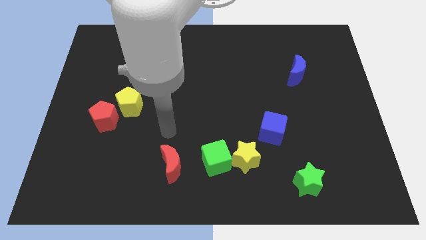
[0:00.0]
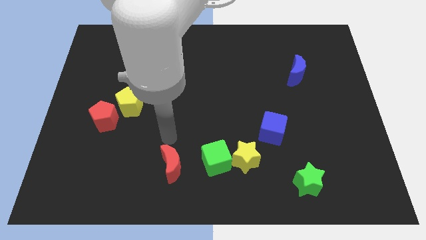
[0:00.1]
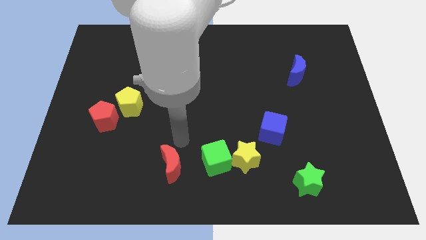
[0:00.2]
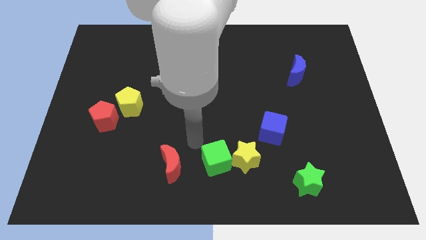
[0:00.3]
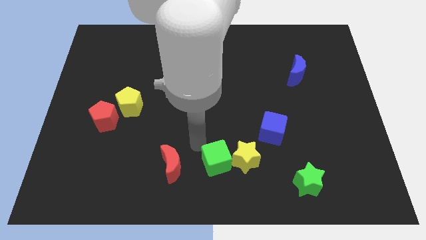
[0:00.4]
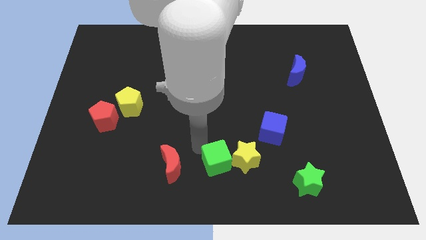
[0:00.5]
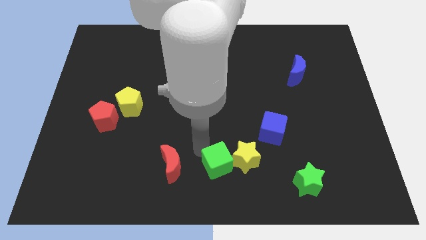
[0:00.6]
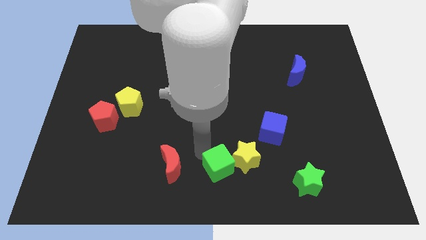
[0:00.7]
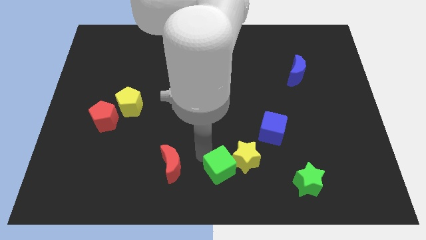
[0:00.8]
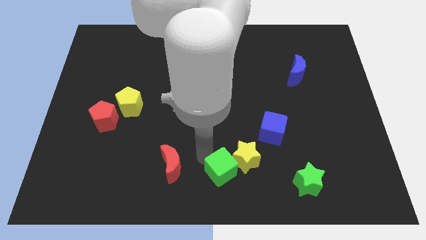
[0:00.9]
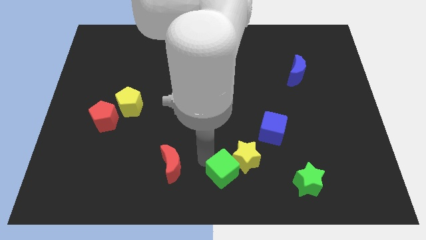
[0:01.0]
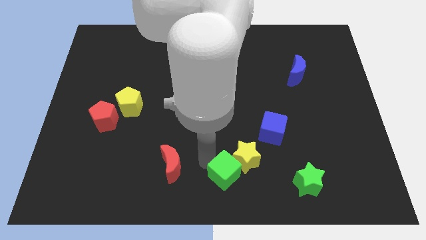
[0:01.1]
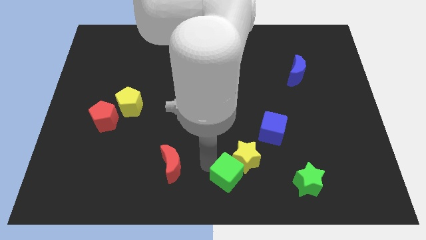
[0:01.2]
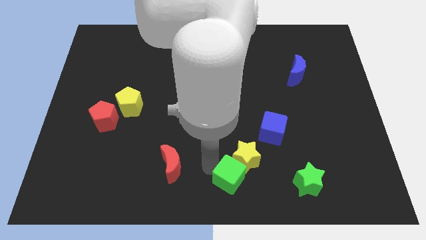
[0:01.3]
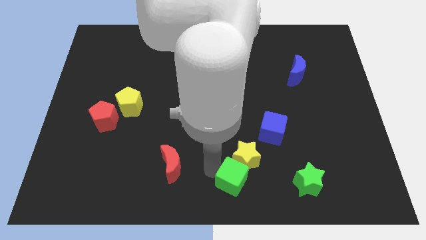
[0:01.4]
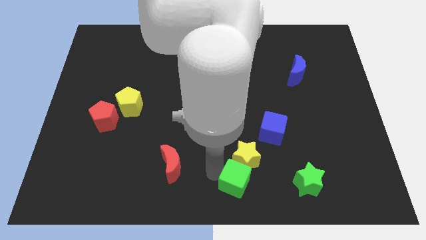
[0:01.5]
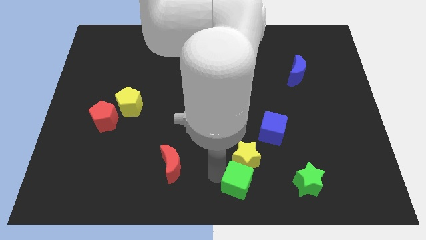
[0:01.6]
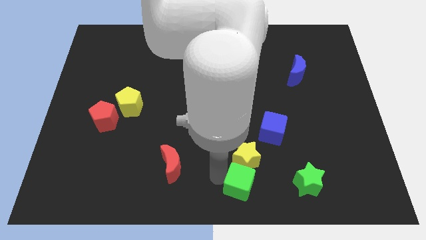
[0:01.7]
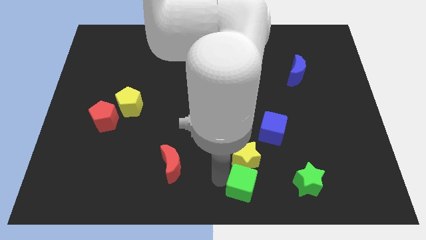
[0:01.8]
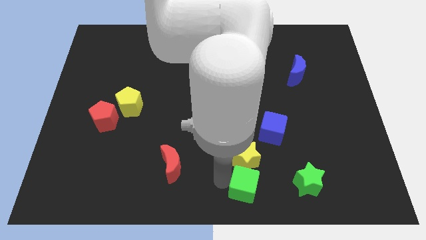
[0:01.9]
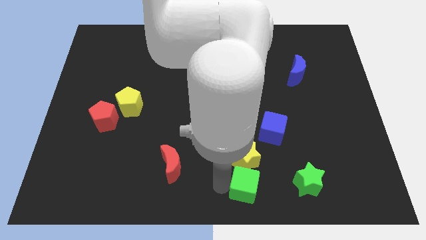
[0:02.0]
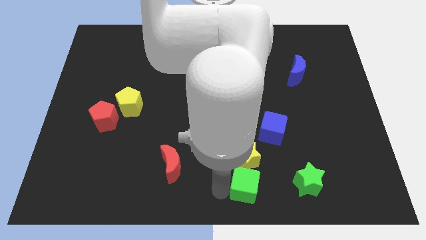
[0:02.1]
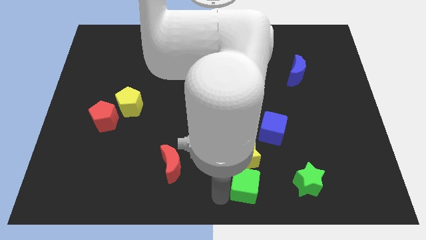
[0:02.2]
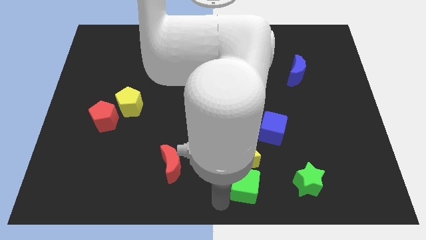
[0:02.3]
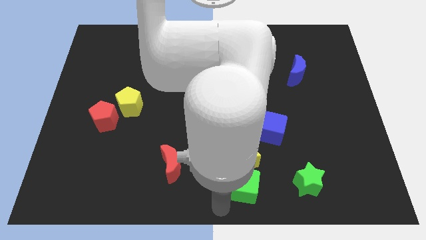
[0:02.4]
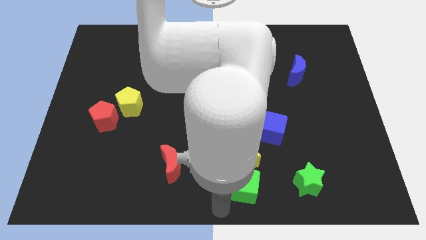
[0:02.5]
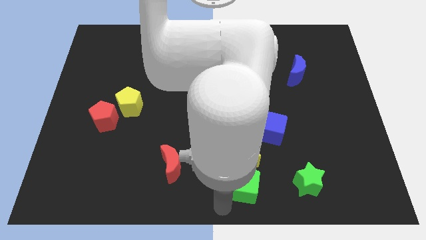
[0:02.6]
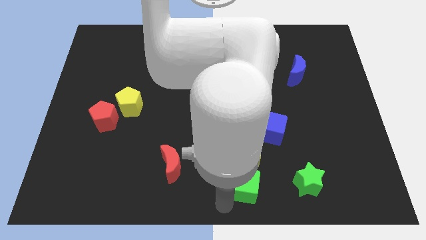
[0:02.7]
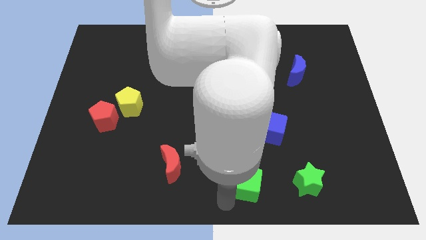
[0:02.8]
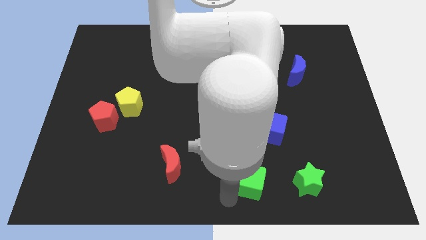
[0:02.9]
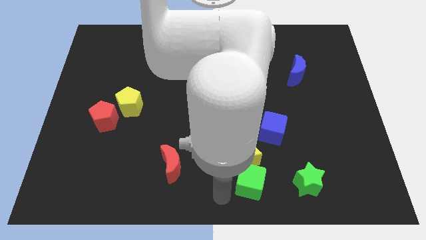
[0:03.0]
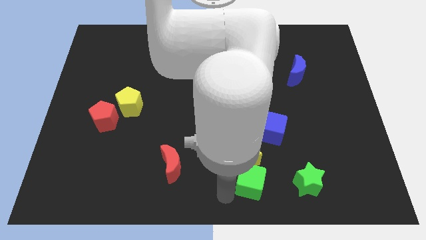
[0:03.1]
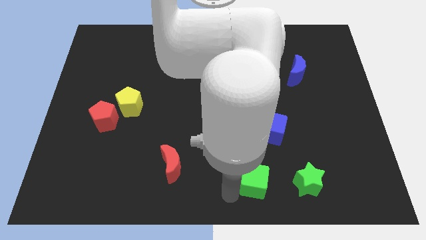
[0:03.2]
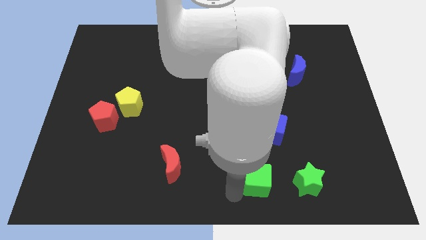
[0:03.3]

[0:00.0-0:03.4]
move the green cube right a little bit

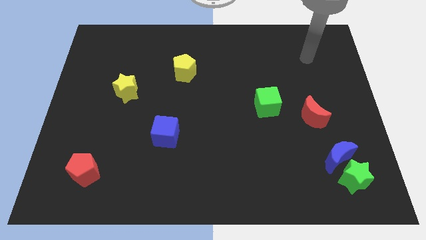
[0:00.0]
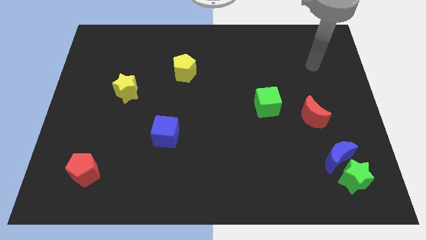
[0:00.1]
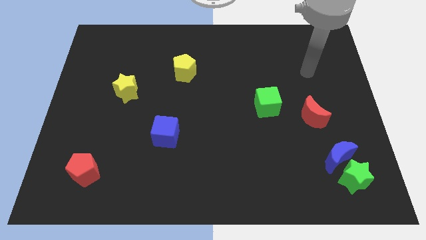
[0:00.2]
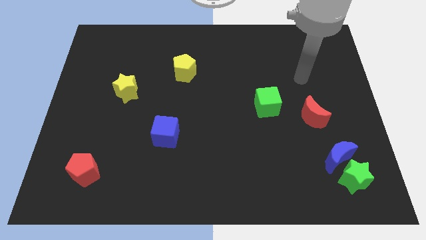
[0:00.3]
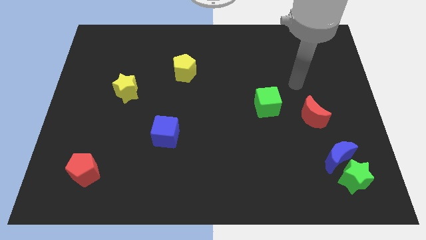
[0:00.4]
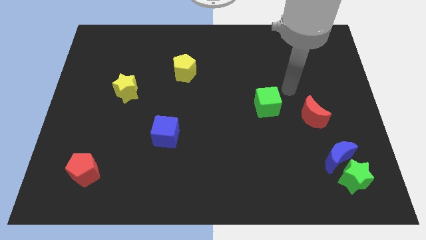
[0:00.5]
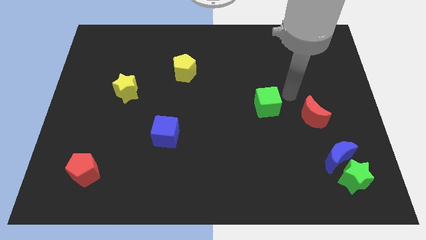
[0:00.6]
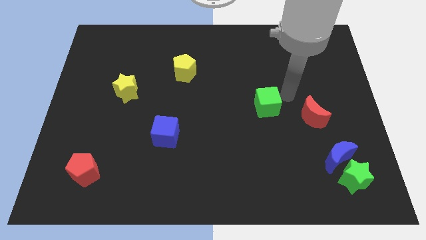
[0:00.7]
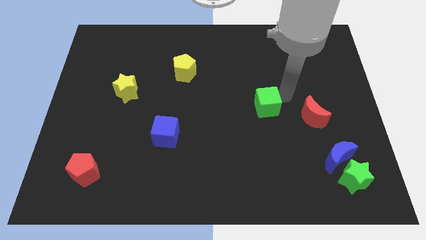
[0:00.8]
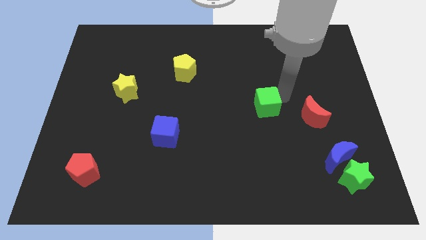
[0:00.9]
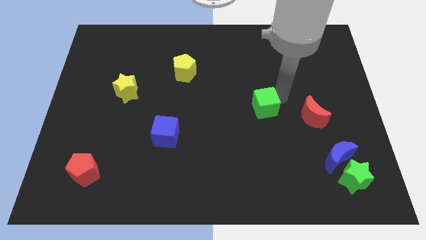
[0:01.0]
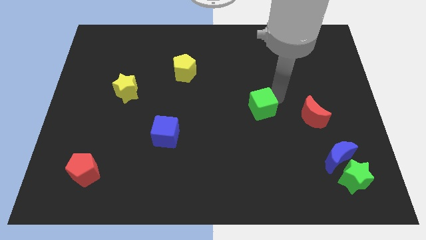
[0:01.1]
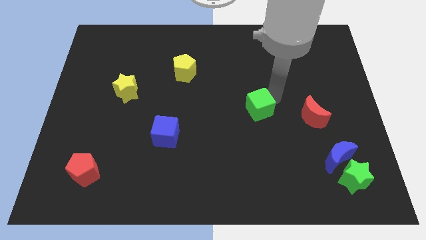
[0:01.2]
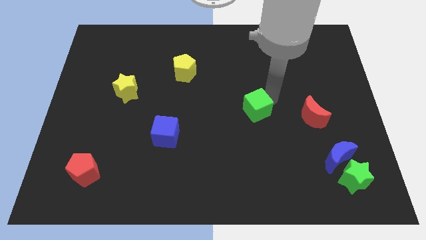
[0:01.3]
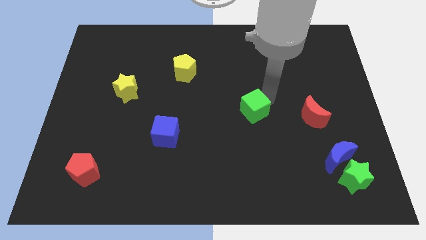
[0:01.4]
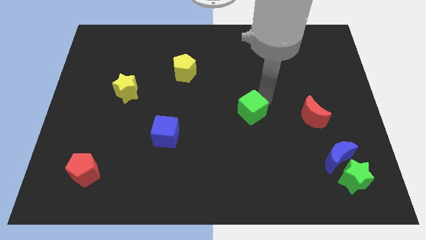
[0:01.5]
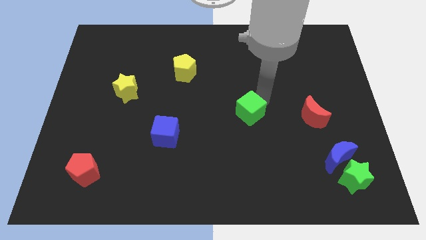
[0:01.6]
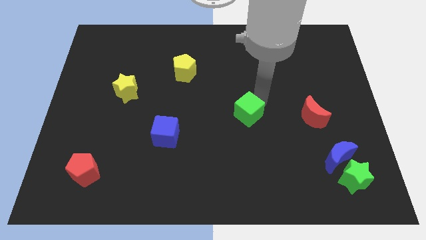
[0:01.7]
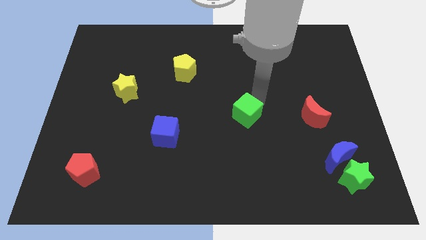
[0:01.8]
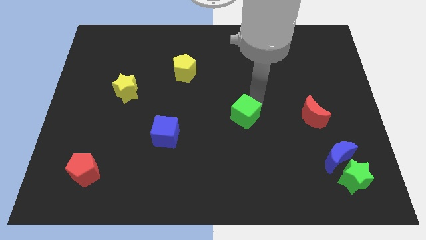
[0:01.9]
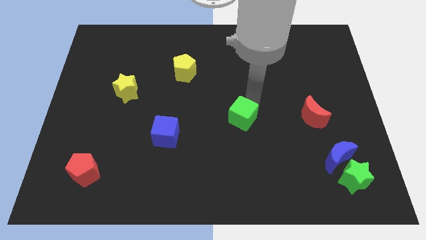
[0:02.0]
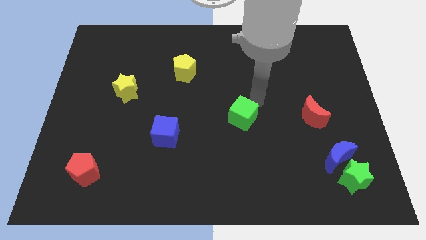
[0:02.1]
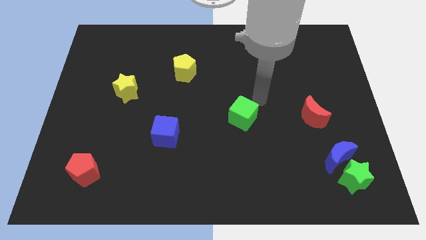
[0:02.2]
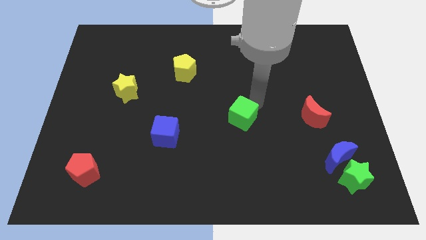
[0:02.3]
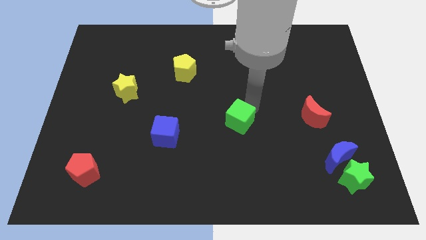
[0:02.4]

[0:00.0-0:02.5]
slightly move the green cube downwards and left diagonally

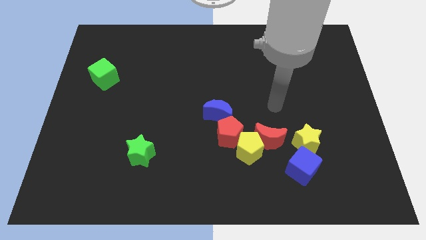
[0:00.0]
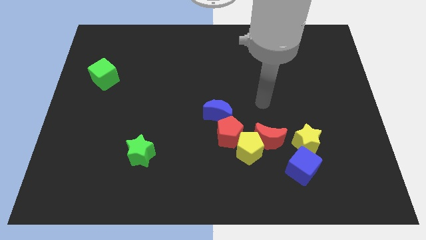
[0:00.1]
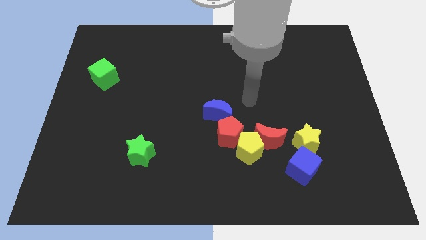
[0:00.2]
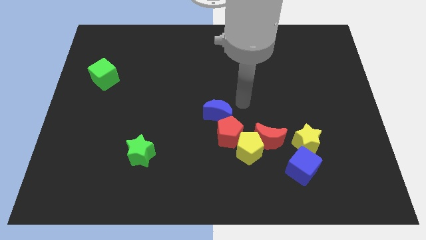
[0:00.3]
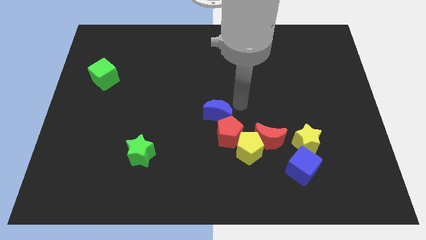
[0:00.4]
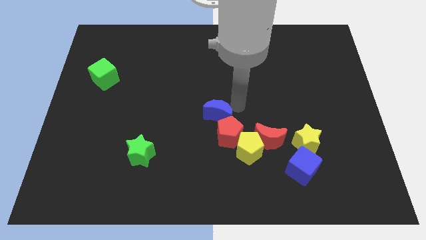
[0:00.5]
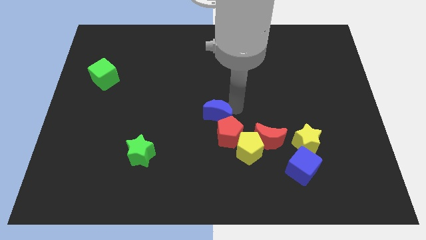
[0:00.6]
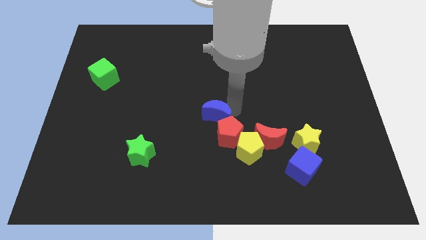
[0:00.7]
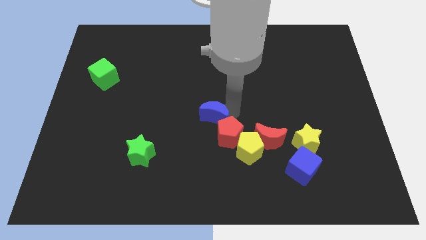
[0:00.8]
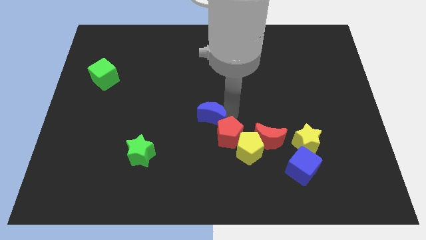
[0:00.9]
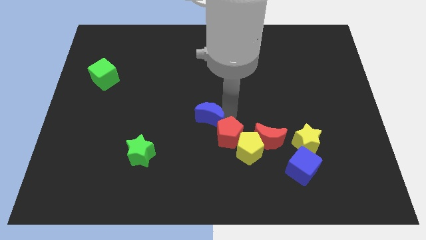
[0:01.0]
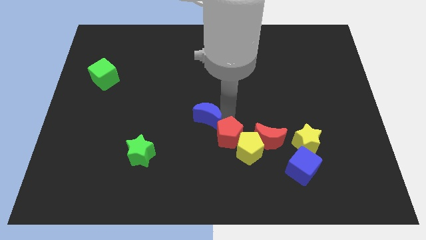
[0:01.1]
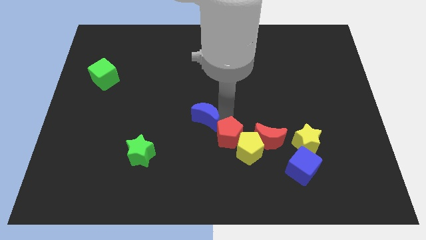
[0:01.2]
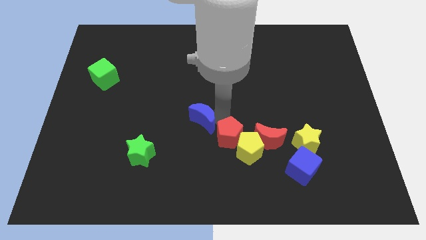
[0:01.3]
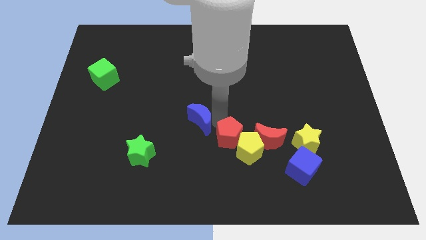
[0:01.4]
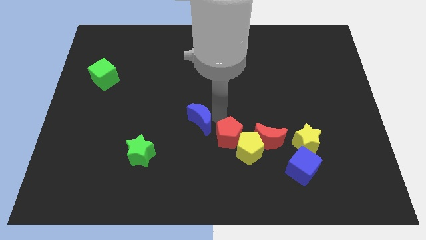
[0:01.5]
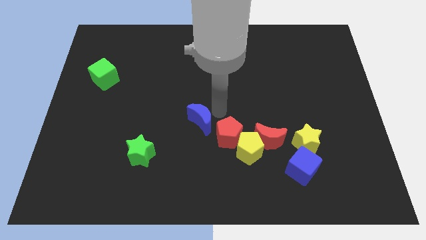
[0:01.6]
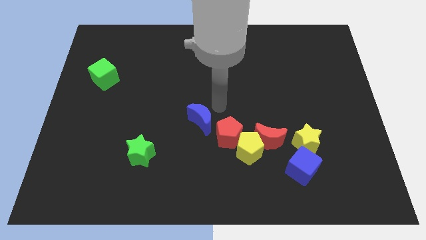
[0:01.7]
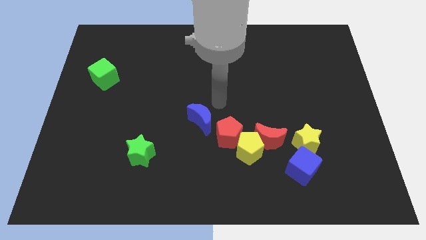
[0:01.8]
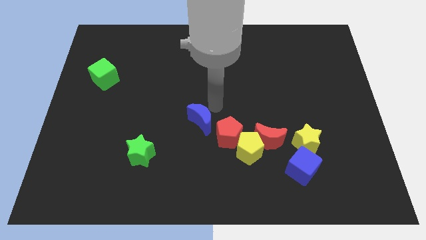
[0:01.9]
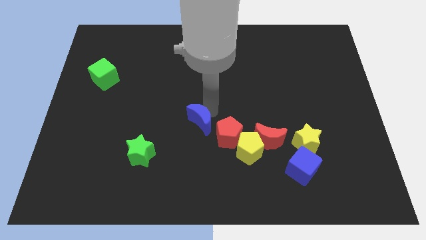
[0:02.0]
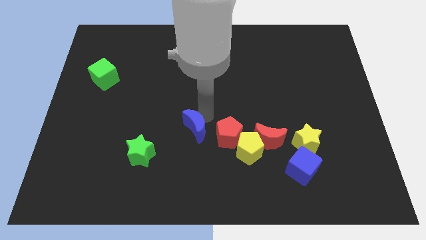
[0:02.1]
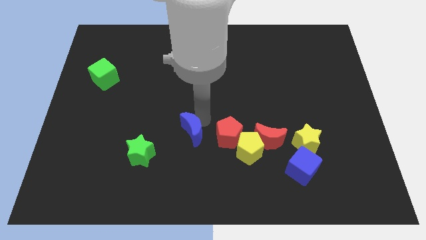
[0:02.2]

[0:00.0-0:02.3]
slightly push the blue moon down and then to the left

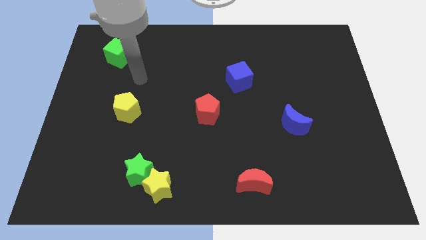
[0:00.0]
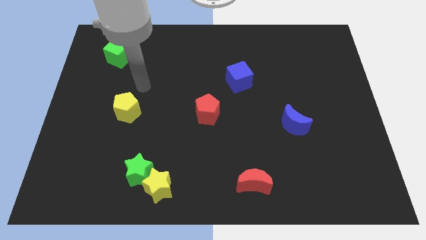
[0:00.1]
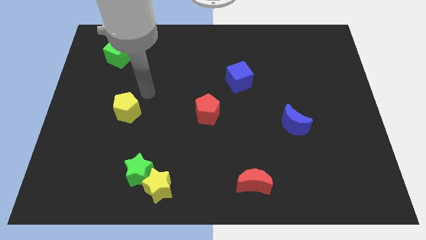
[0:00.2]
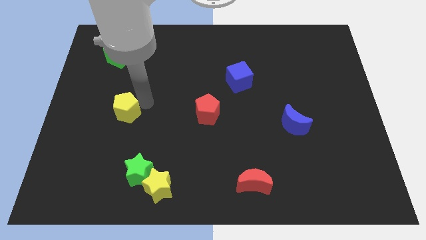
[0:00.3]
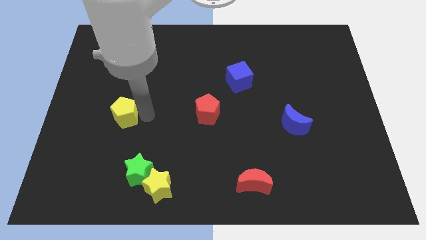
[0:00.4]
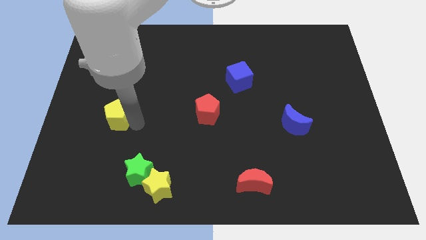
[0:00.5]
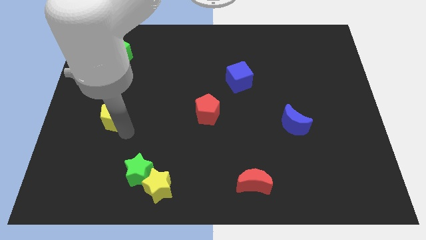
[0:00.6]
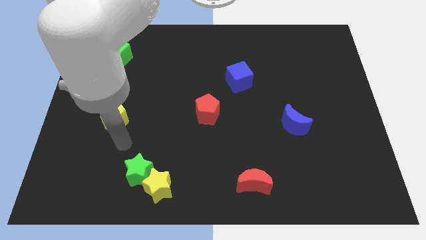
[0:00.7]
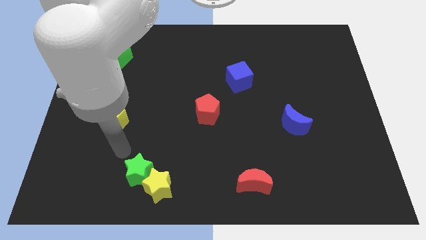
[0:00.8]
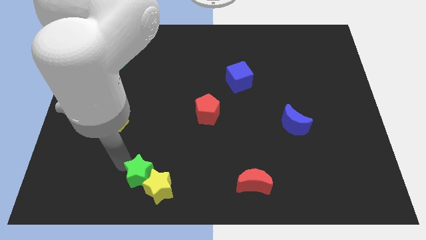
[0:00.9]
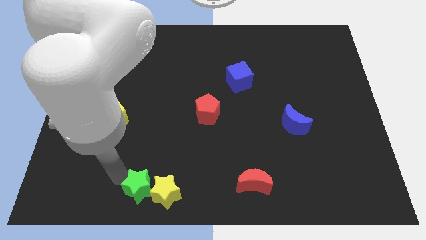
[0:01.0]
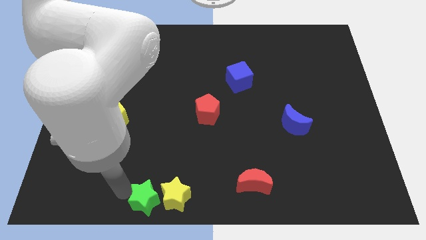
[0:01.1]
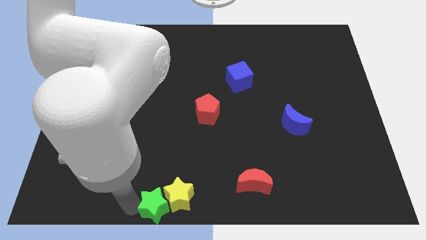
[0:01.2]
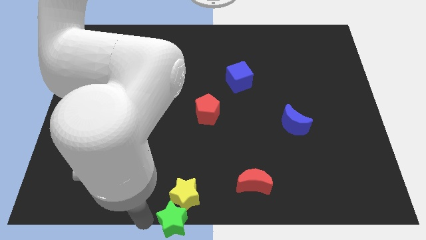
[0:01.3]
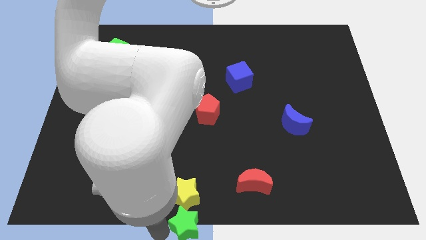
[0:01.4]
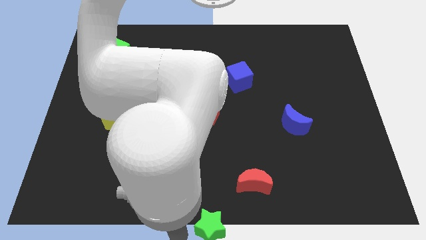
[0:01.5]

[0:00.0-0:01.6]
push the green star to the right slightly
